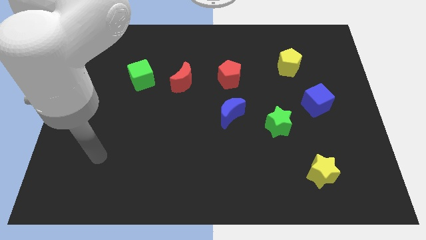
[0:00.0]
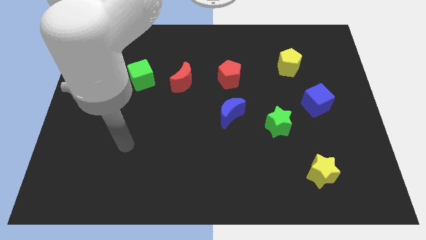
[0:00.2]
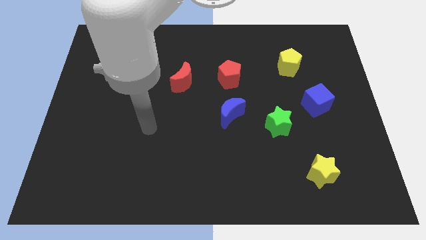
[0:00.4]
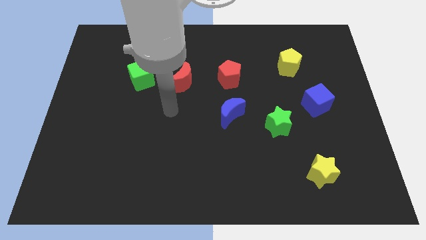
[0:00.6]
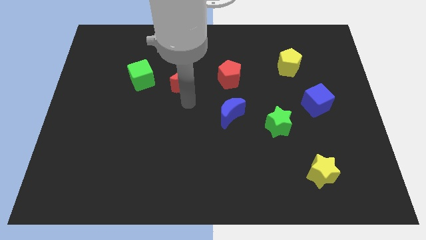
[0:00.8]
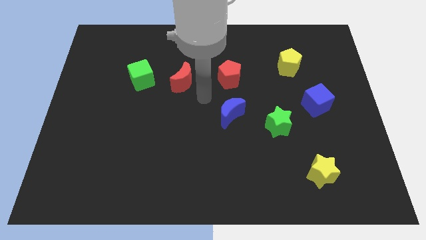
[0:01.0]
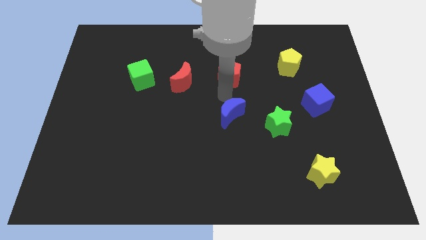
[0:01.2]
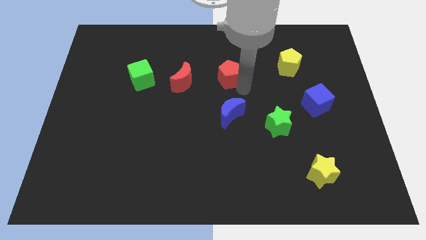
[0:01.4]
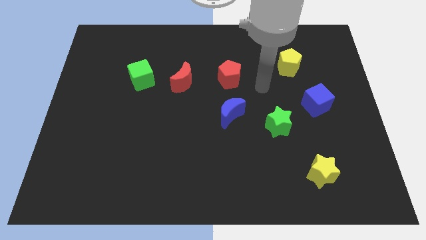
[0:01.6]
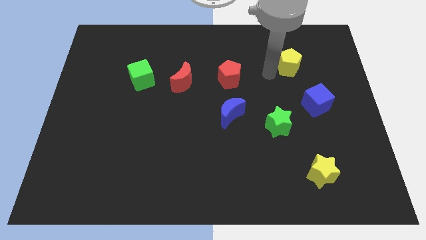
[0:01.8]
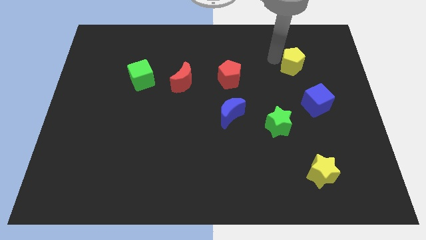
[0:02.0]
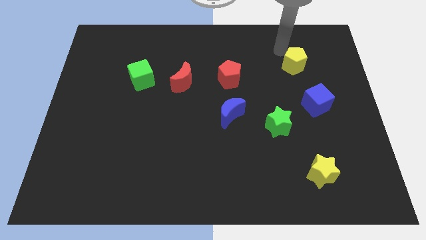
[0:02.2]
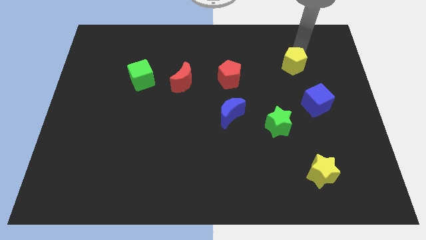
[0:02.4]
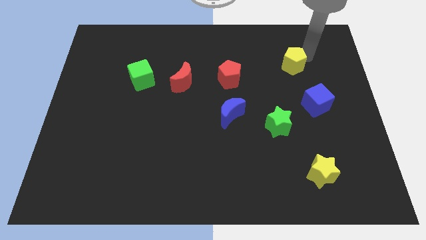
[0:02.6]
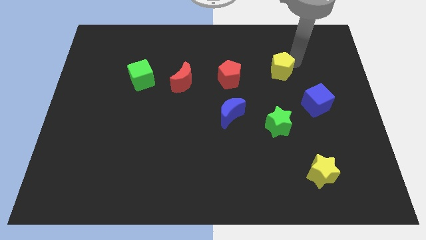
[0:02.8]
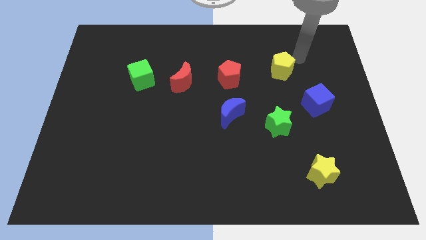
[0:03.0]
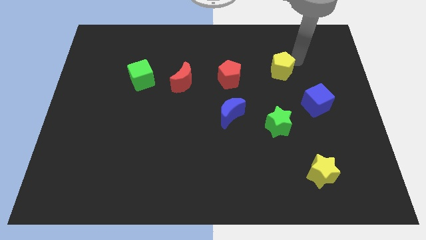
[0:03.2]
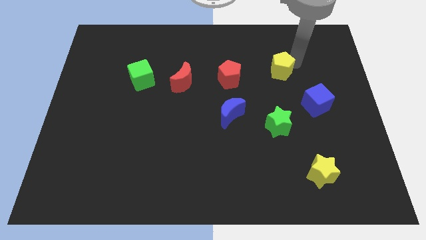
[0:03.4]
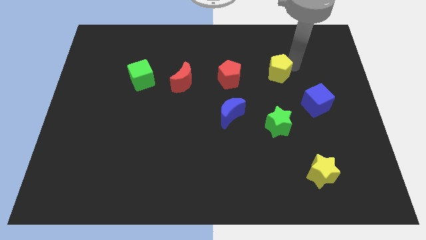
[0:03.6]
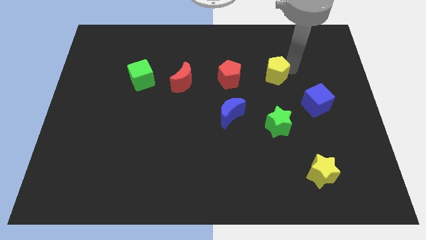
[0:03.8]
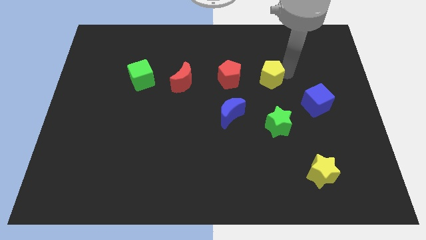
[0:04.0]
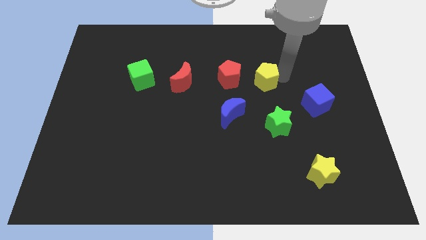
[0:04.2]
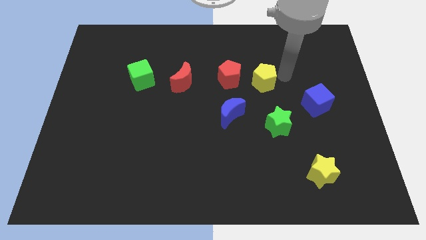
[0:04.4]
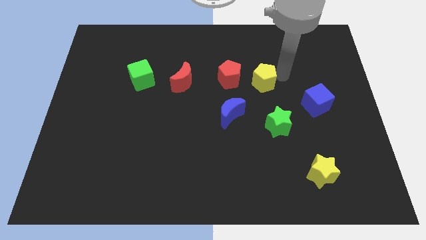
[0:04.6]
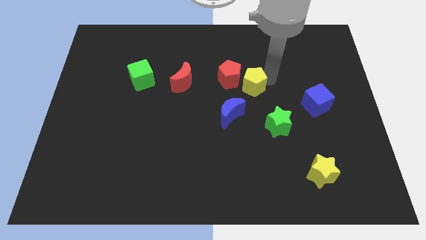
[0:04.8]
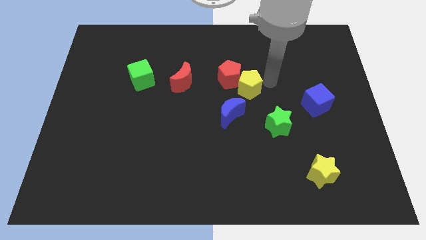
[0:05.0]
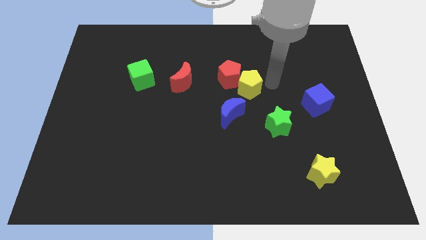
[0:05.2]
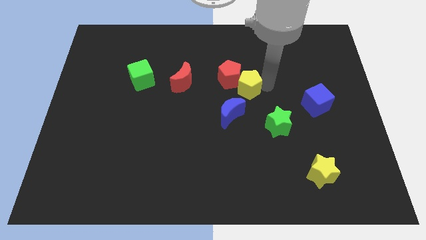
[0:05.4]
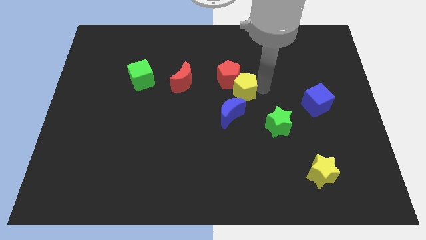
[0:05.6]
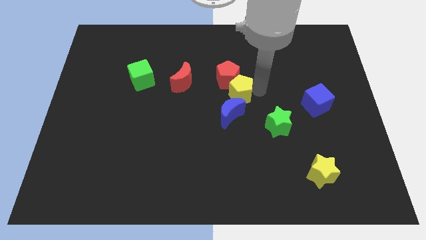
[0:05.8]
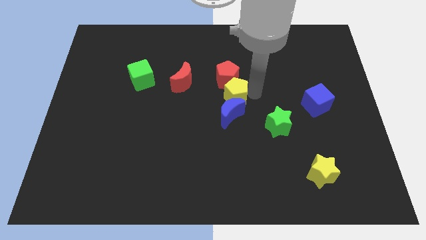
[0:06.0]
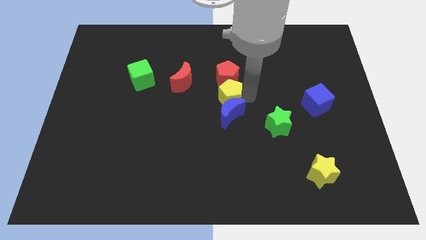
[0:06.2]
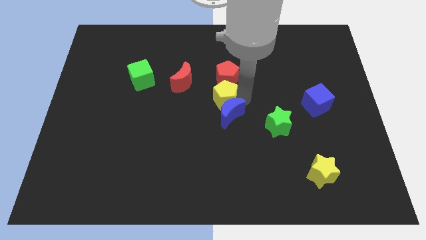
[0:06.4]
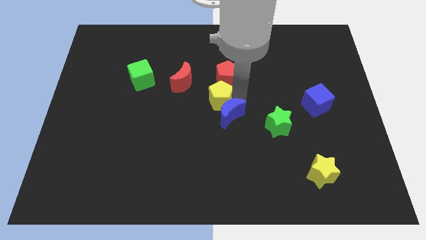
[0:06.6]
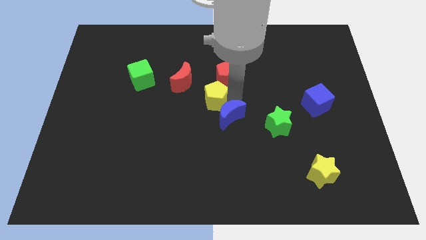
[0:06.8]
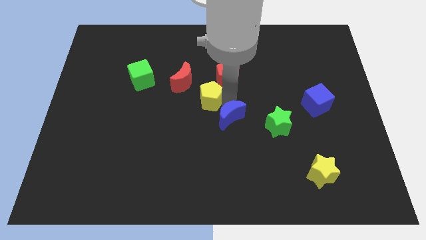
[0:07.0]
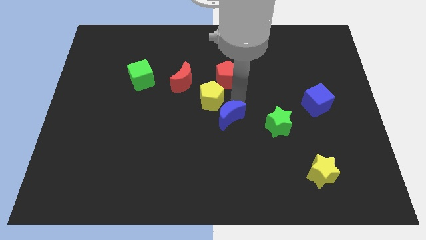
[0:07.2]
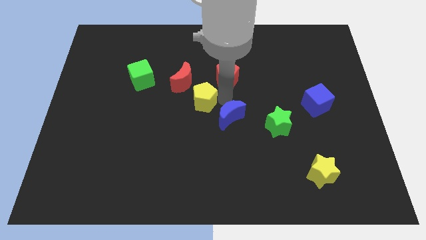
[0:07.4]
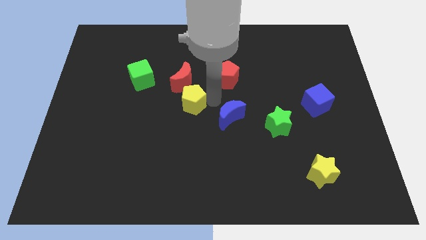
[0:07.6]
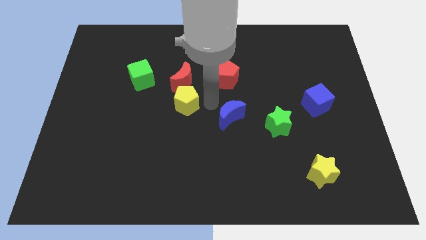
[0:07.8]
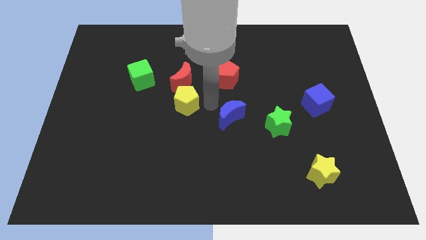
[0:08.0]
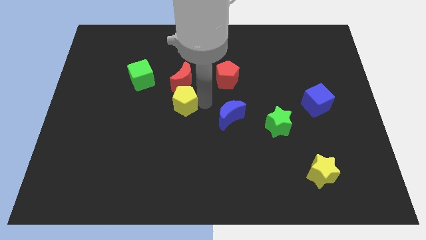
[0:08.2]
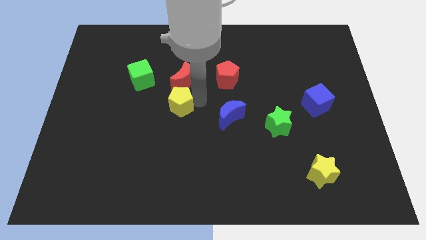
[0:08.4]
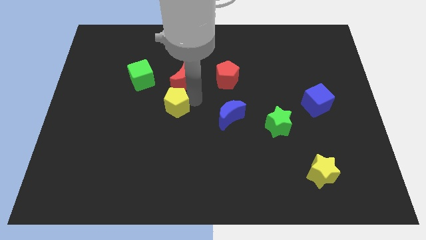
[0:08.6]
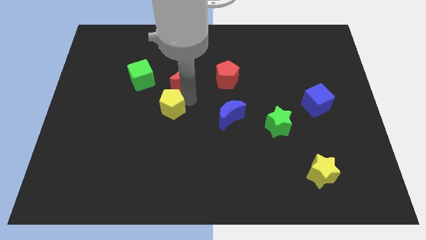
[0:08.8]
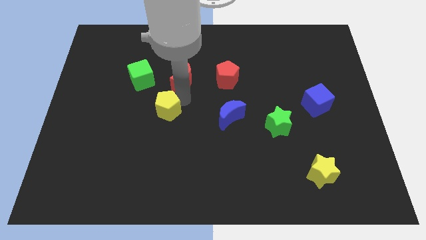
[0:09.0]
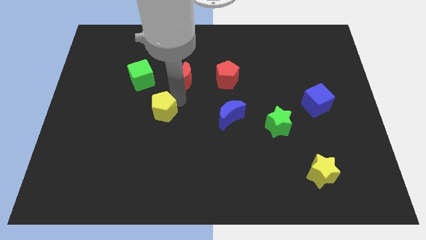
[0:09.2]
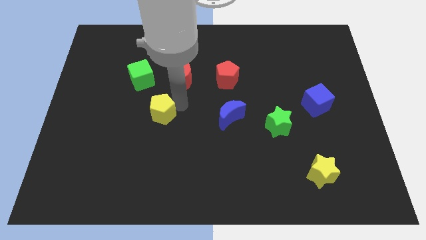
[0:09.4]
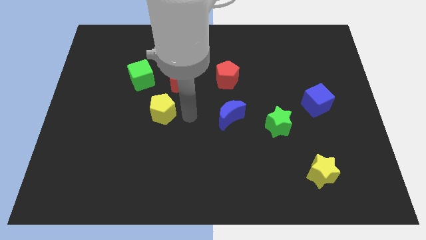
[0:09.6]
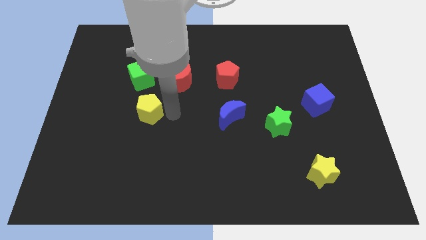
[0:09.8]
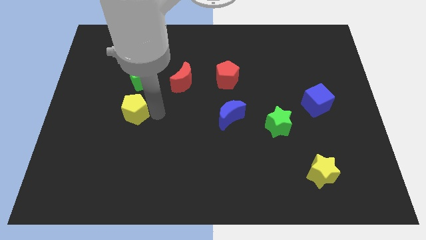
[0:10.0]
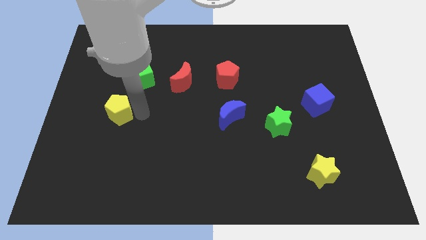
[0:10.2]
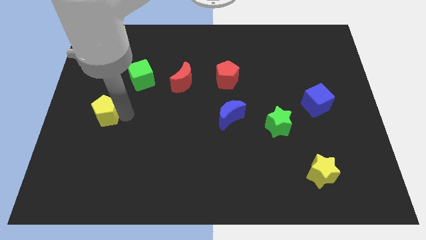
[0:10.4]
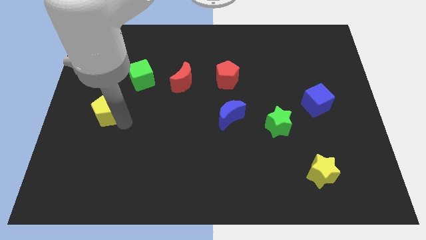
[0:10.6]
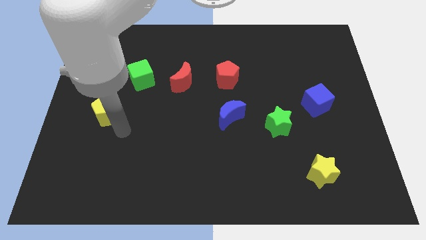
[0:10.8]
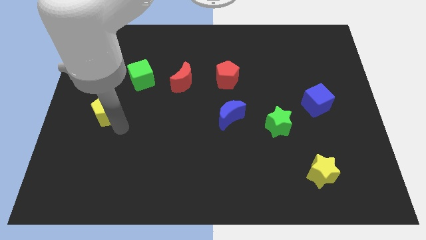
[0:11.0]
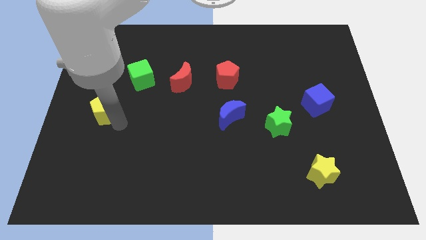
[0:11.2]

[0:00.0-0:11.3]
slide the yellow pentagon to the center left

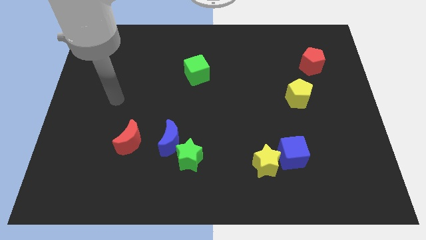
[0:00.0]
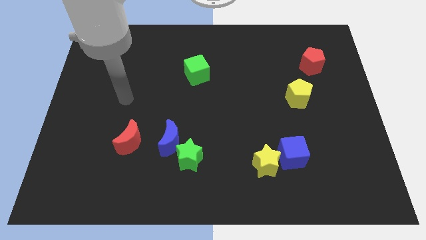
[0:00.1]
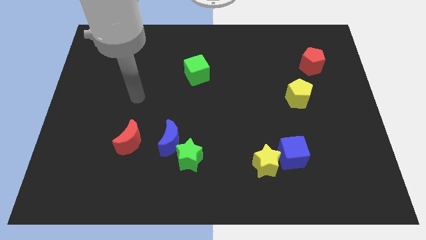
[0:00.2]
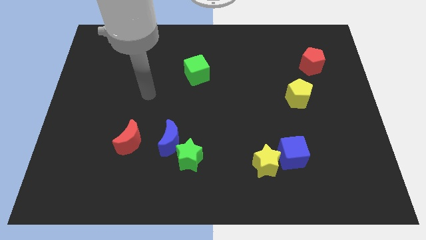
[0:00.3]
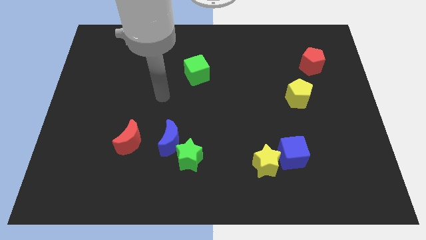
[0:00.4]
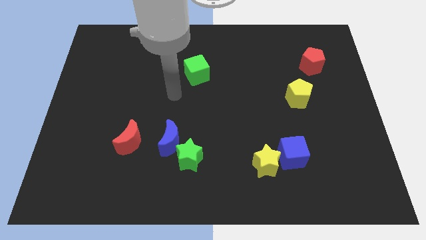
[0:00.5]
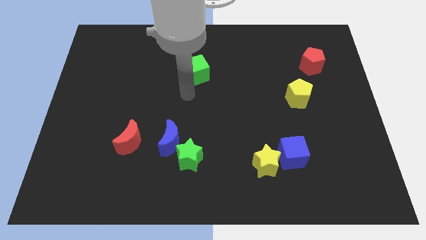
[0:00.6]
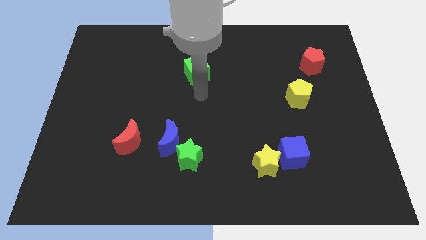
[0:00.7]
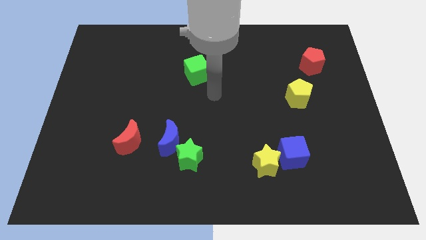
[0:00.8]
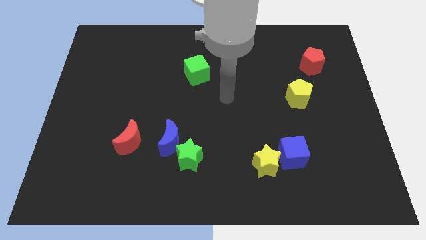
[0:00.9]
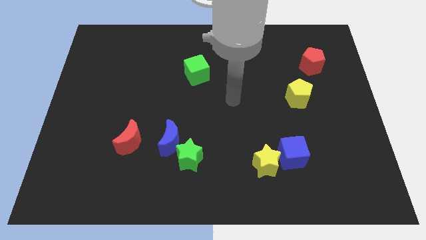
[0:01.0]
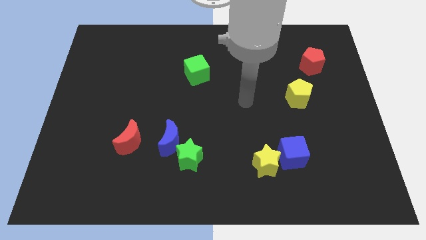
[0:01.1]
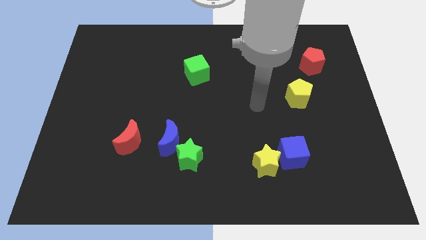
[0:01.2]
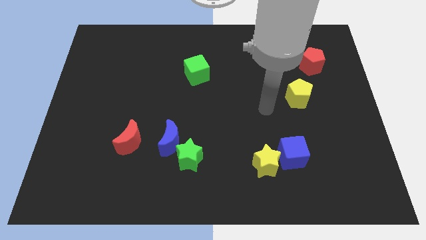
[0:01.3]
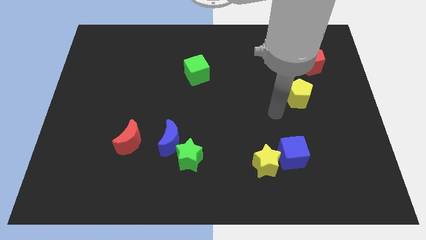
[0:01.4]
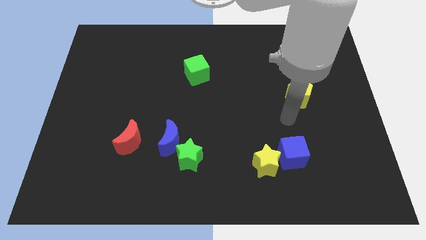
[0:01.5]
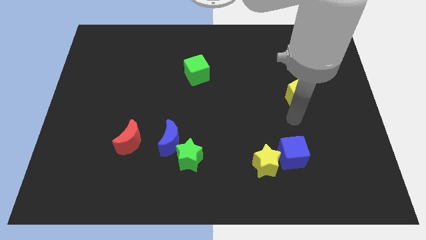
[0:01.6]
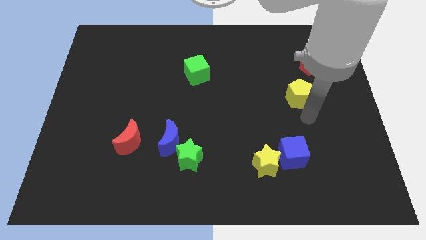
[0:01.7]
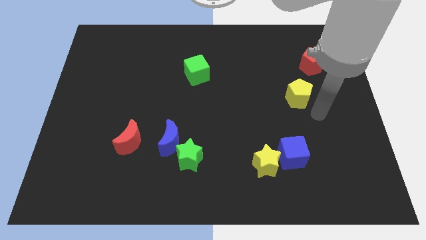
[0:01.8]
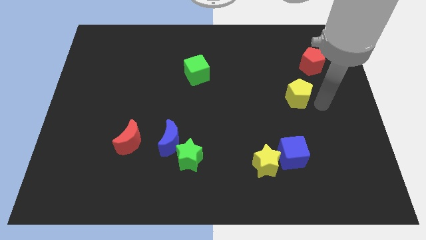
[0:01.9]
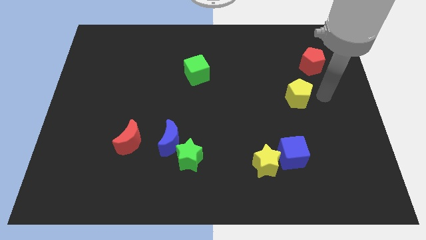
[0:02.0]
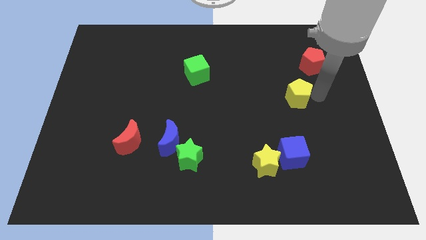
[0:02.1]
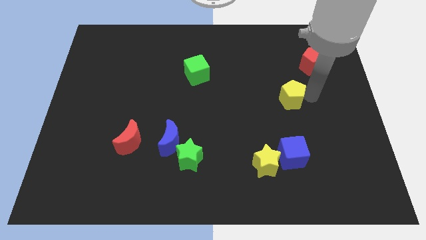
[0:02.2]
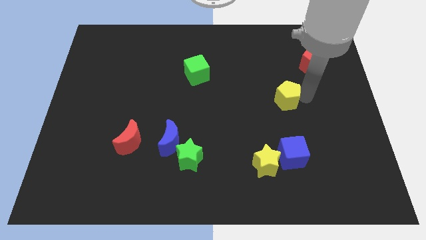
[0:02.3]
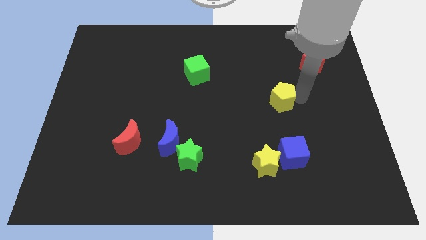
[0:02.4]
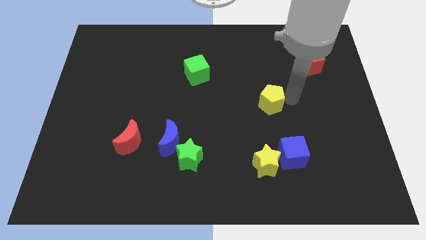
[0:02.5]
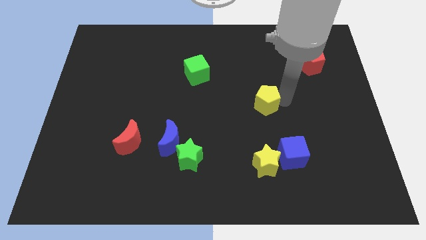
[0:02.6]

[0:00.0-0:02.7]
push the yellow pentagon to the middle
